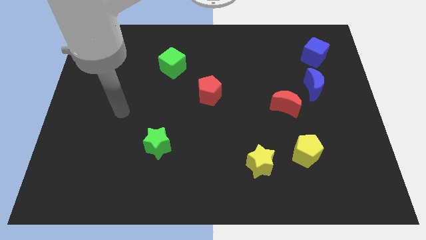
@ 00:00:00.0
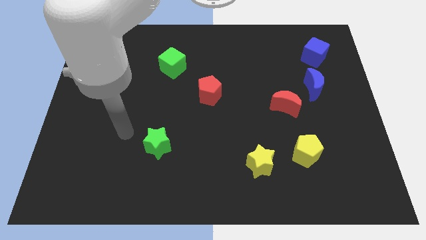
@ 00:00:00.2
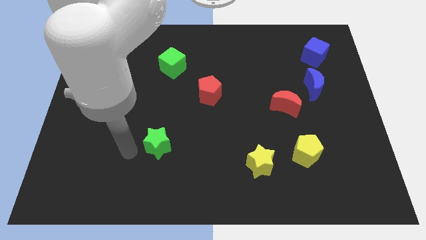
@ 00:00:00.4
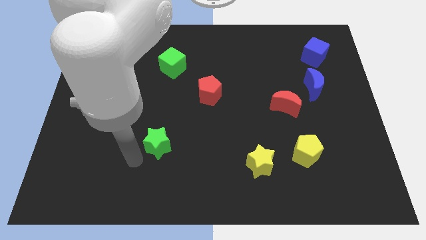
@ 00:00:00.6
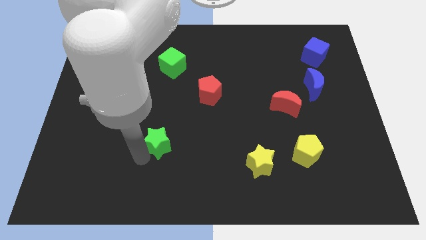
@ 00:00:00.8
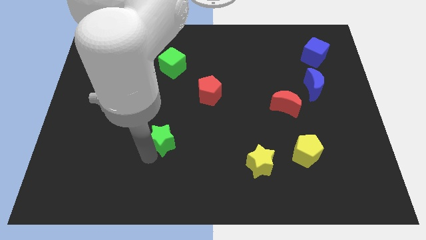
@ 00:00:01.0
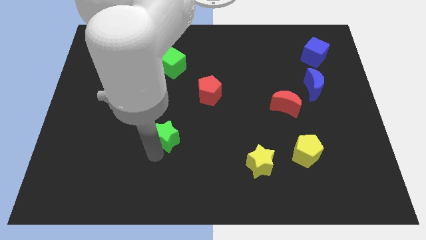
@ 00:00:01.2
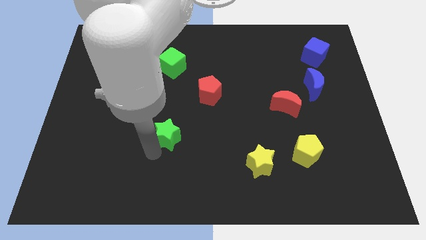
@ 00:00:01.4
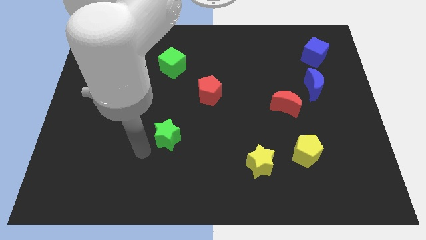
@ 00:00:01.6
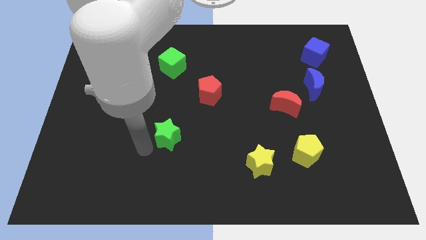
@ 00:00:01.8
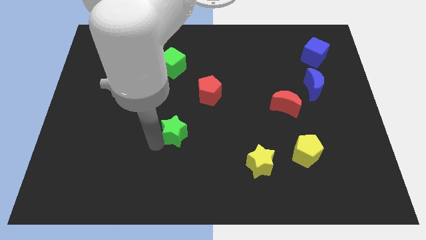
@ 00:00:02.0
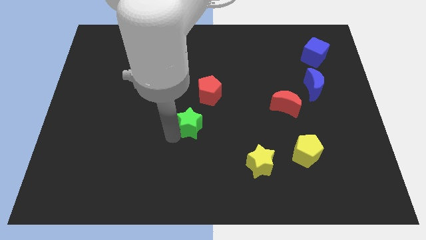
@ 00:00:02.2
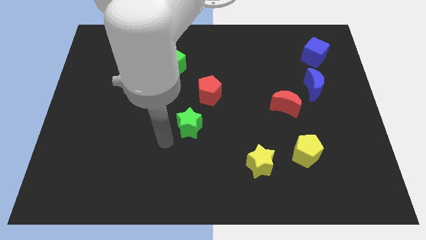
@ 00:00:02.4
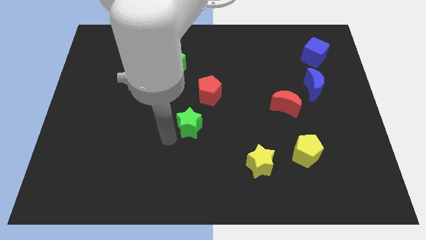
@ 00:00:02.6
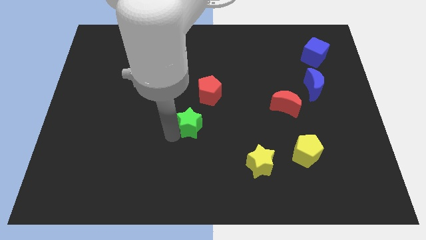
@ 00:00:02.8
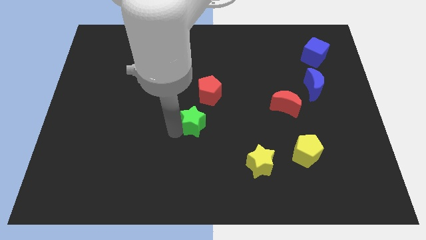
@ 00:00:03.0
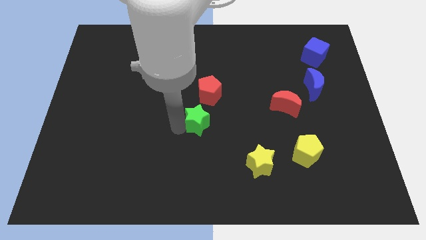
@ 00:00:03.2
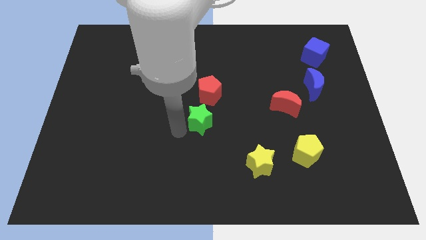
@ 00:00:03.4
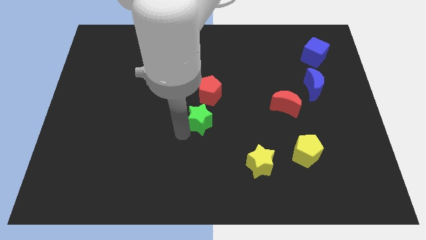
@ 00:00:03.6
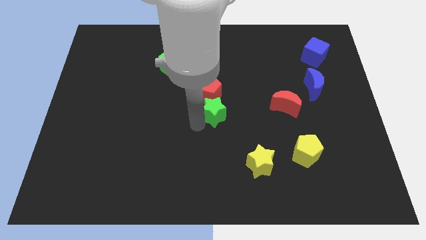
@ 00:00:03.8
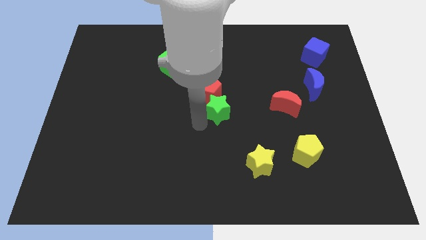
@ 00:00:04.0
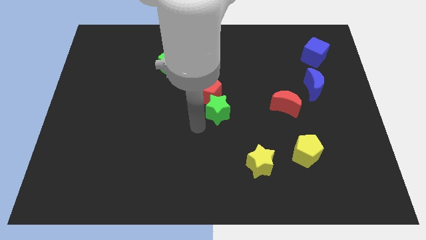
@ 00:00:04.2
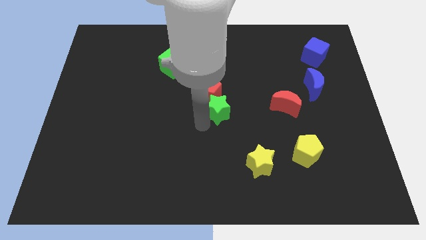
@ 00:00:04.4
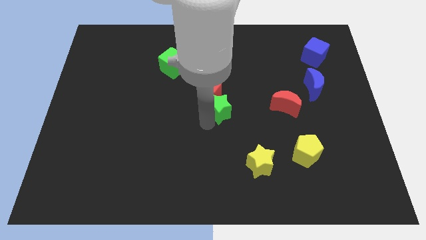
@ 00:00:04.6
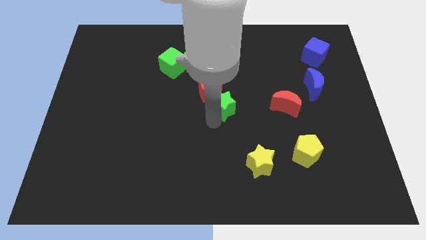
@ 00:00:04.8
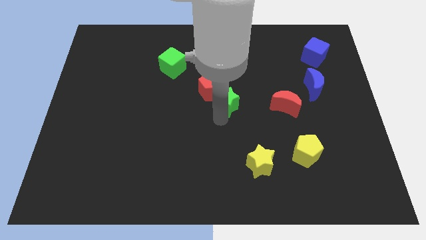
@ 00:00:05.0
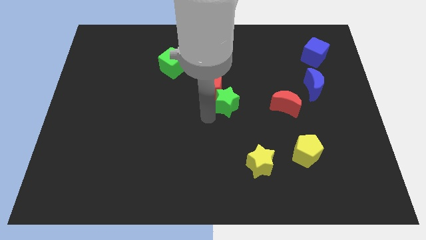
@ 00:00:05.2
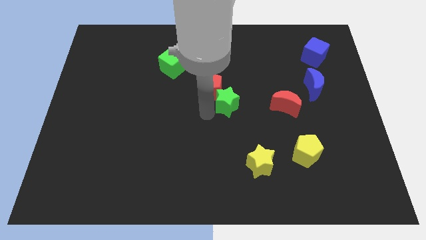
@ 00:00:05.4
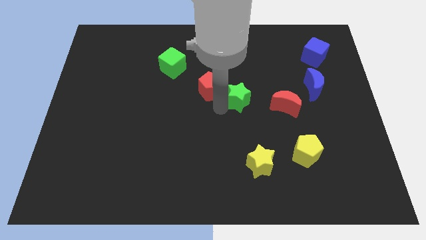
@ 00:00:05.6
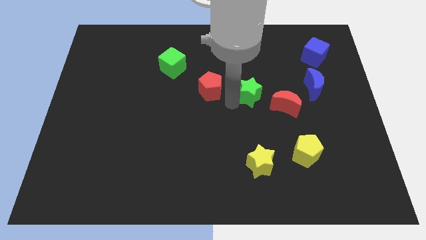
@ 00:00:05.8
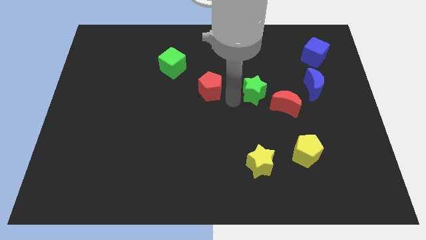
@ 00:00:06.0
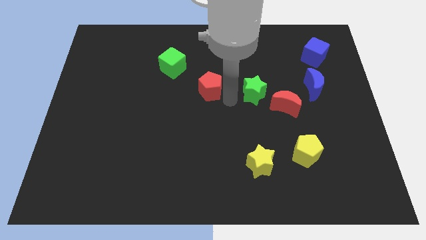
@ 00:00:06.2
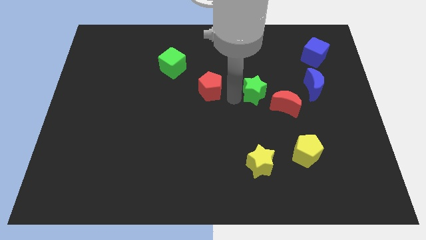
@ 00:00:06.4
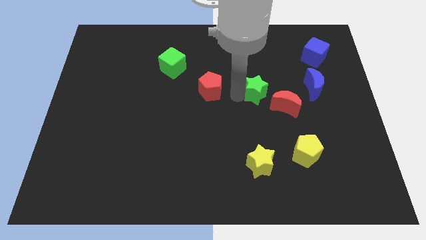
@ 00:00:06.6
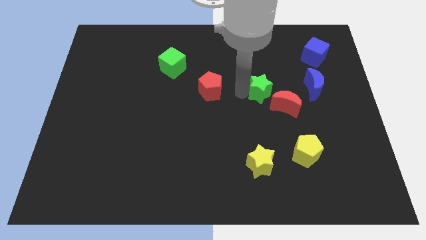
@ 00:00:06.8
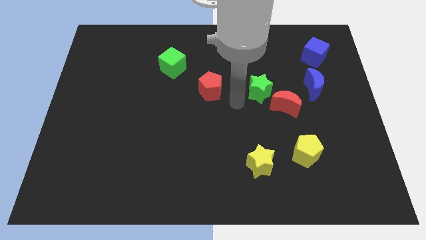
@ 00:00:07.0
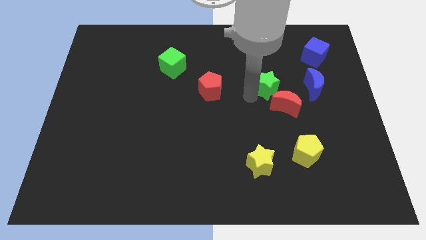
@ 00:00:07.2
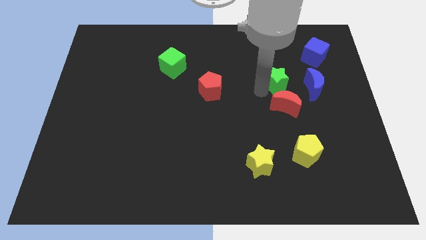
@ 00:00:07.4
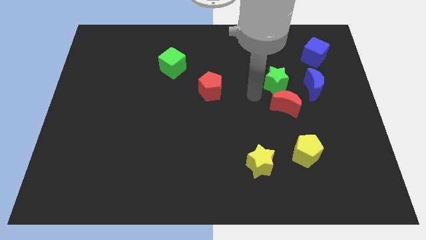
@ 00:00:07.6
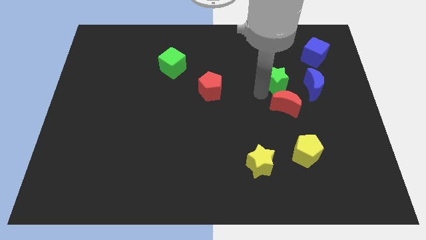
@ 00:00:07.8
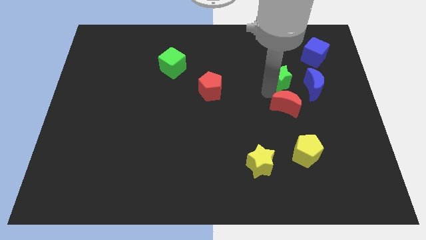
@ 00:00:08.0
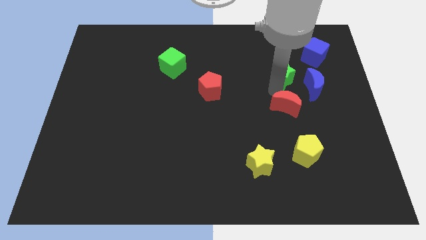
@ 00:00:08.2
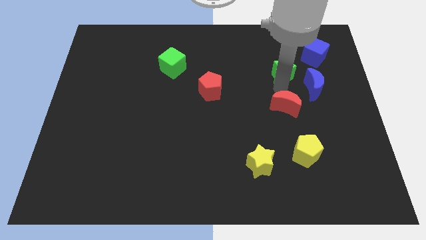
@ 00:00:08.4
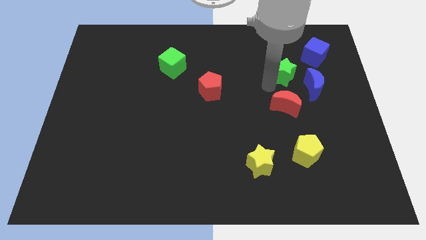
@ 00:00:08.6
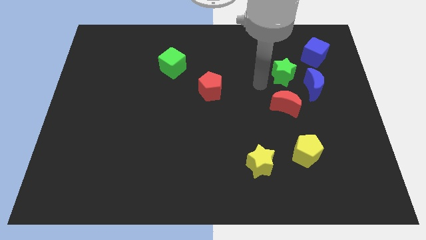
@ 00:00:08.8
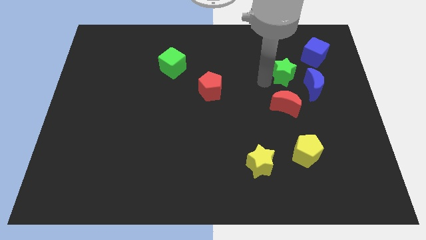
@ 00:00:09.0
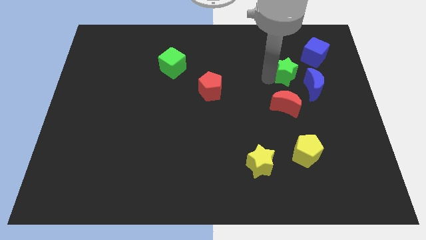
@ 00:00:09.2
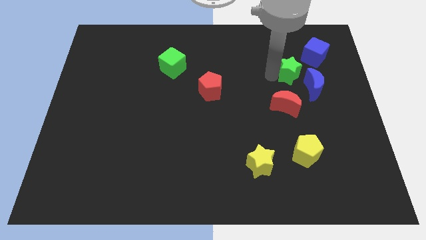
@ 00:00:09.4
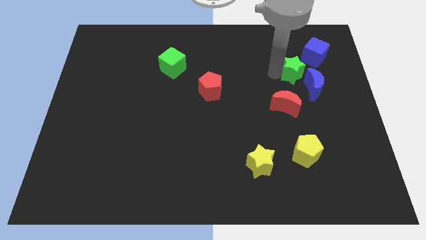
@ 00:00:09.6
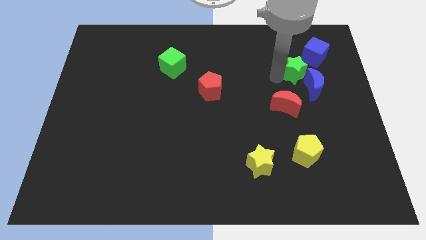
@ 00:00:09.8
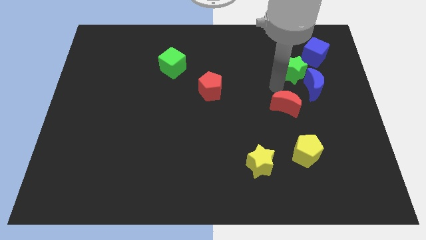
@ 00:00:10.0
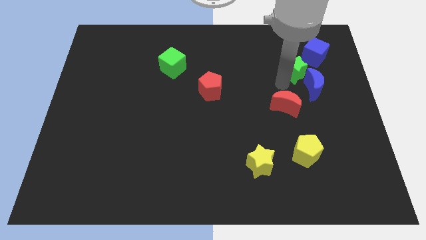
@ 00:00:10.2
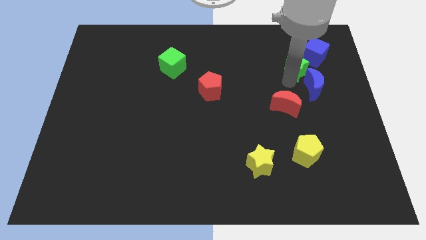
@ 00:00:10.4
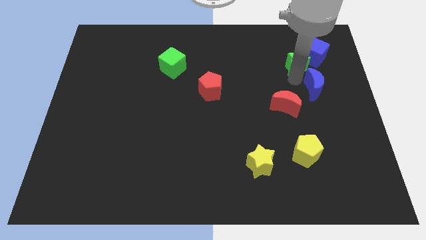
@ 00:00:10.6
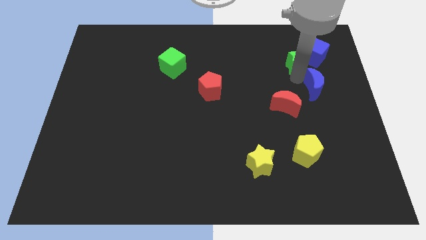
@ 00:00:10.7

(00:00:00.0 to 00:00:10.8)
put the green star next to the blue cube

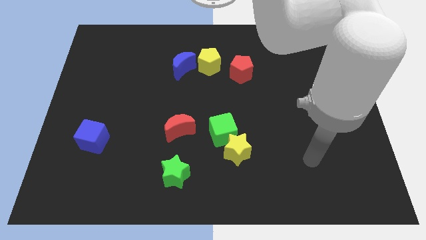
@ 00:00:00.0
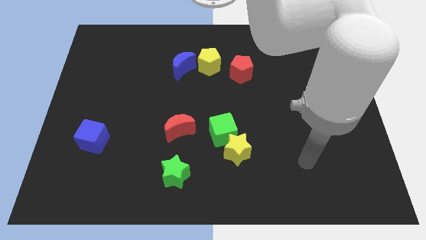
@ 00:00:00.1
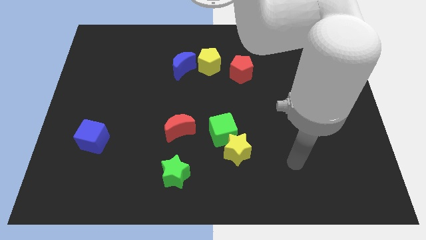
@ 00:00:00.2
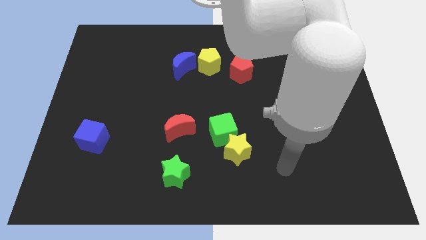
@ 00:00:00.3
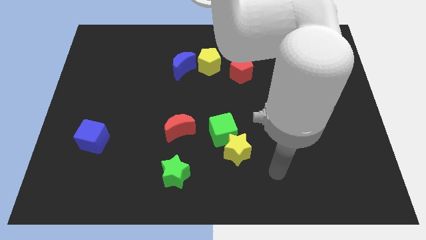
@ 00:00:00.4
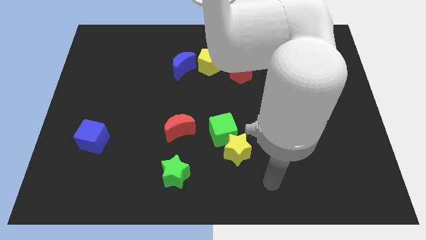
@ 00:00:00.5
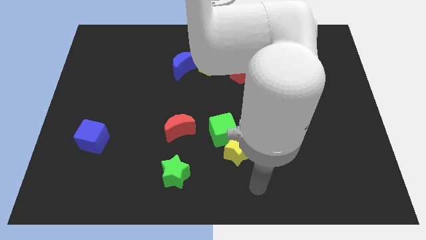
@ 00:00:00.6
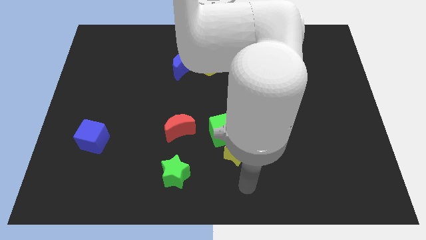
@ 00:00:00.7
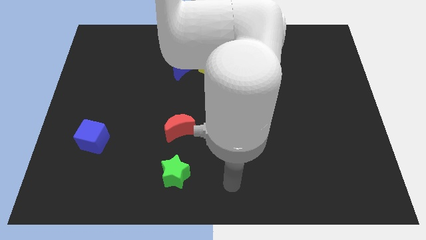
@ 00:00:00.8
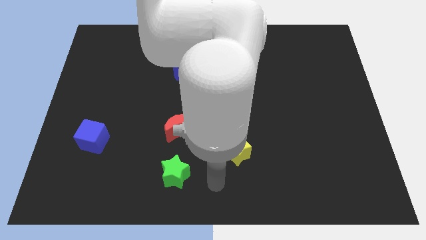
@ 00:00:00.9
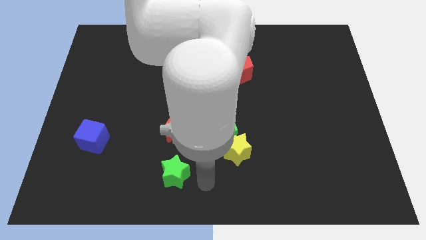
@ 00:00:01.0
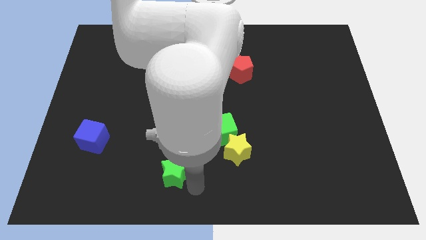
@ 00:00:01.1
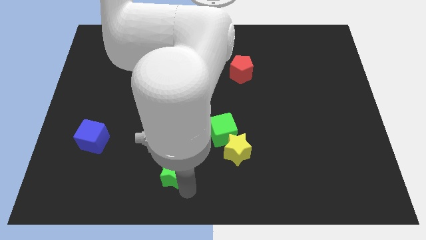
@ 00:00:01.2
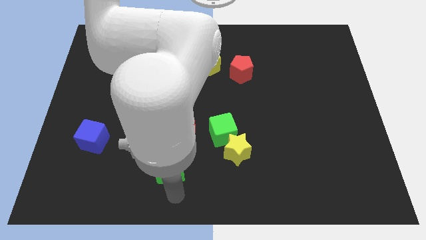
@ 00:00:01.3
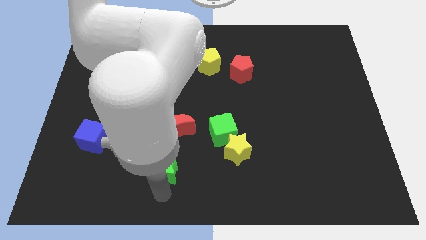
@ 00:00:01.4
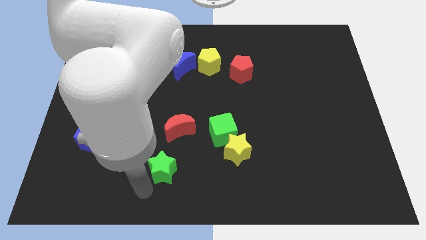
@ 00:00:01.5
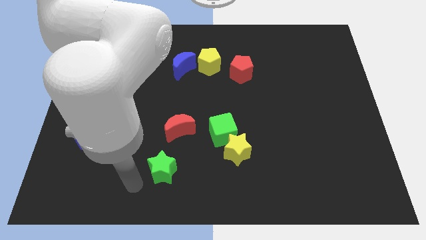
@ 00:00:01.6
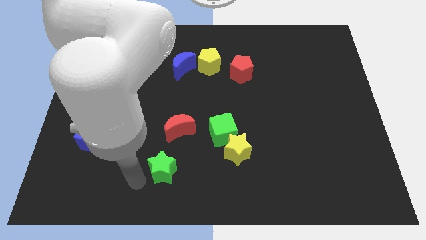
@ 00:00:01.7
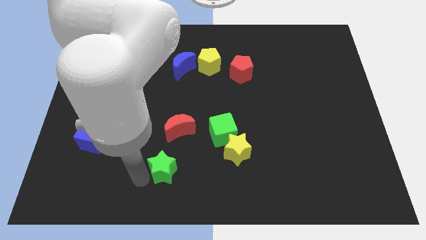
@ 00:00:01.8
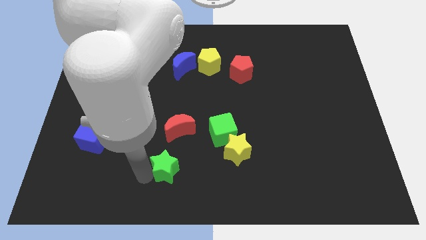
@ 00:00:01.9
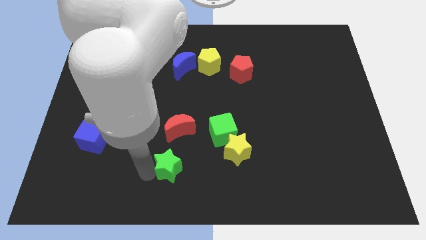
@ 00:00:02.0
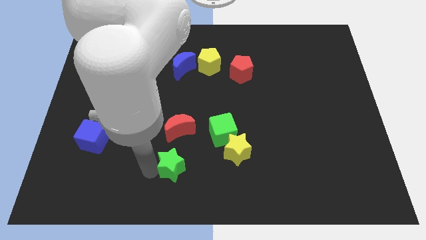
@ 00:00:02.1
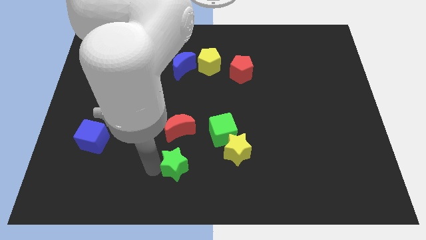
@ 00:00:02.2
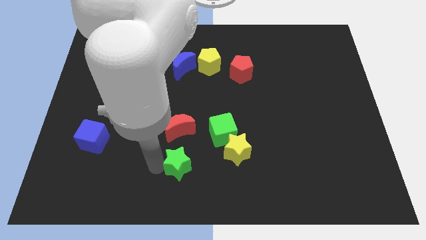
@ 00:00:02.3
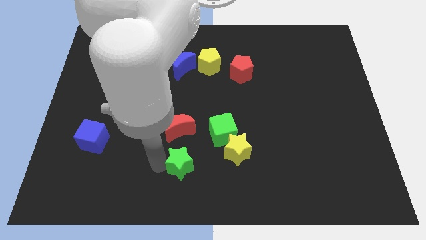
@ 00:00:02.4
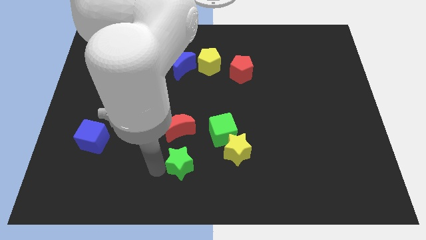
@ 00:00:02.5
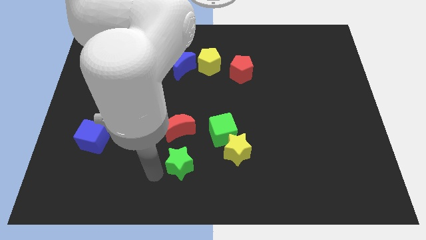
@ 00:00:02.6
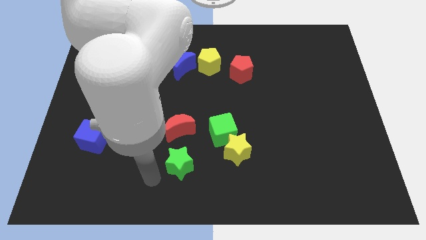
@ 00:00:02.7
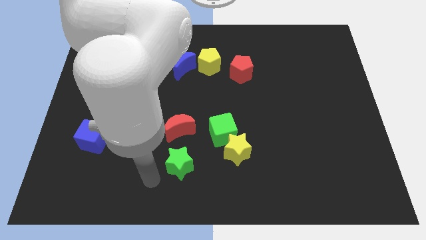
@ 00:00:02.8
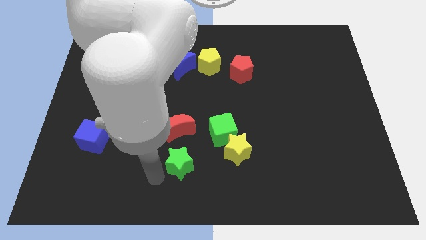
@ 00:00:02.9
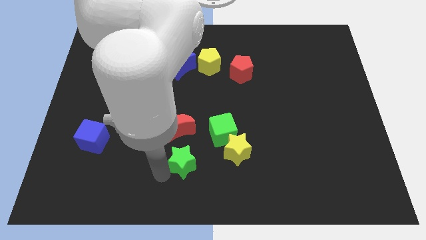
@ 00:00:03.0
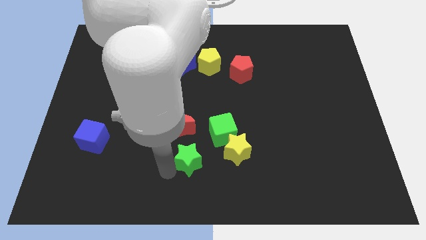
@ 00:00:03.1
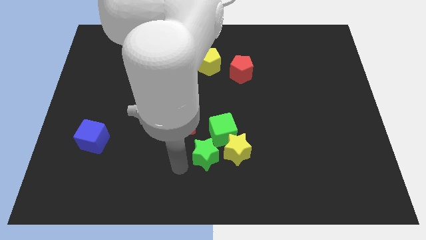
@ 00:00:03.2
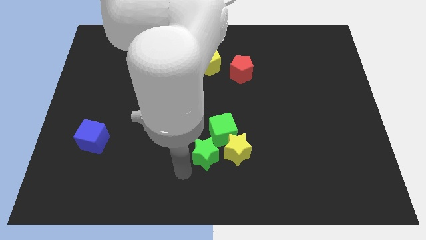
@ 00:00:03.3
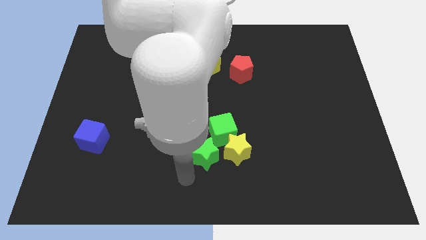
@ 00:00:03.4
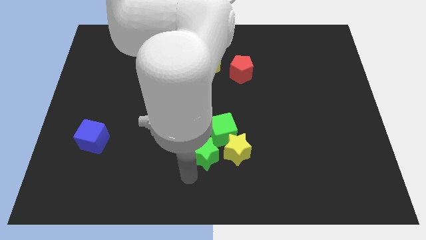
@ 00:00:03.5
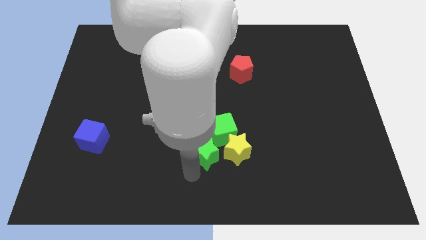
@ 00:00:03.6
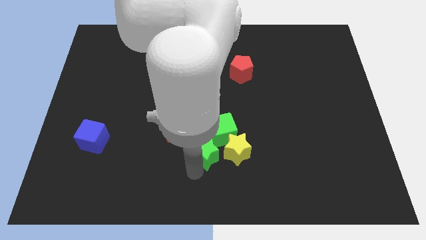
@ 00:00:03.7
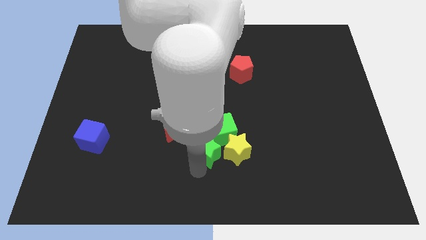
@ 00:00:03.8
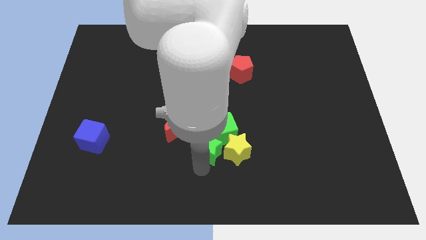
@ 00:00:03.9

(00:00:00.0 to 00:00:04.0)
push the green star towards the green cube
